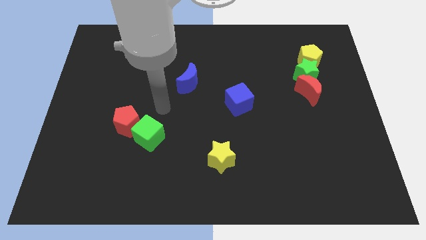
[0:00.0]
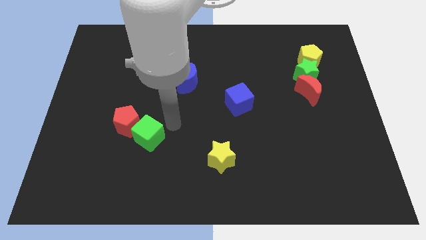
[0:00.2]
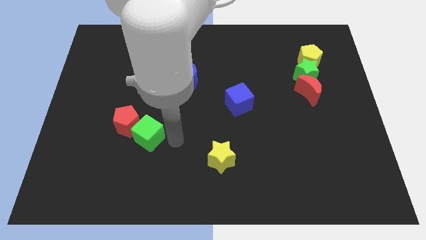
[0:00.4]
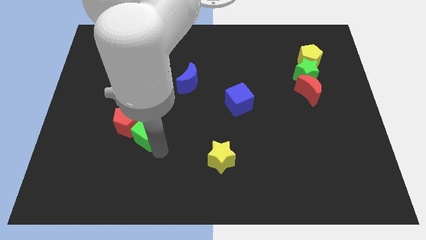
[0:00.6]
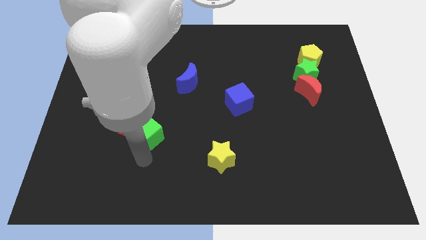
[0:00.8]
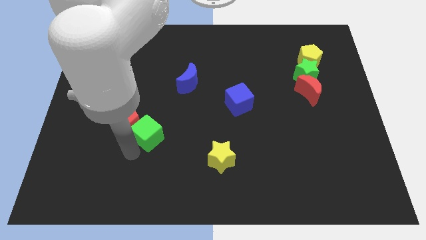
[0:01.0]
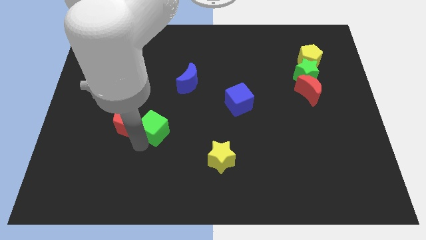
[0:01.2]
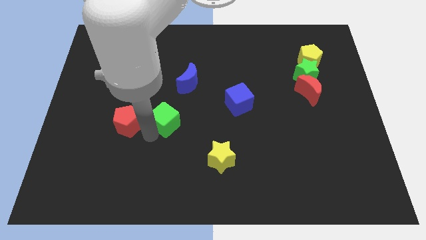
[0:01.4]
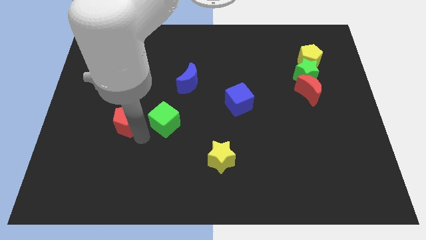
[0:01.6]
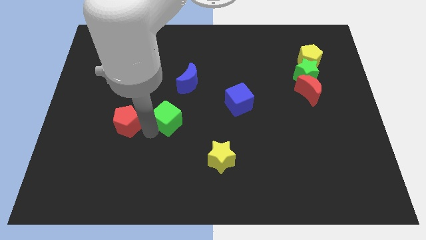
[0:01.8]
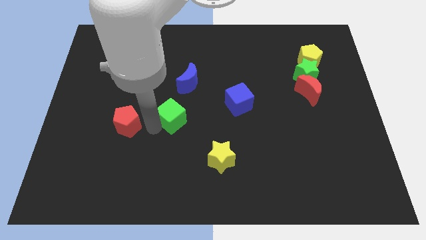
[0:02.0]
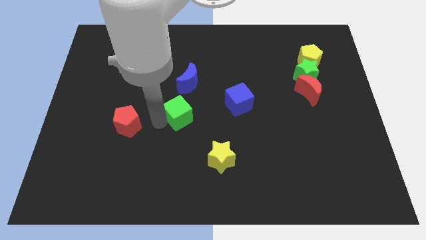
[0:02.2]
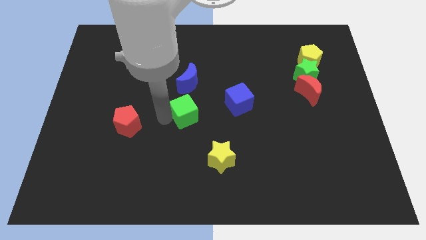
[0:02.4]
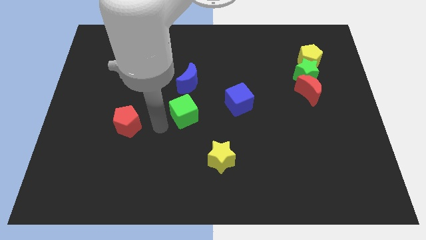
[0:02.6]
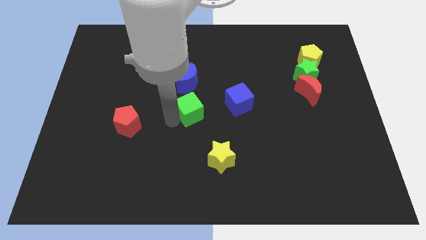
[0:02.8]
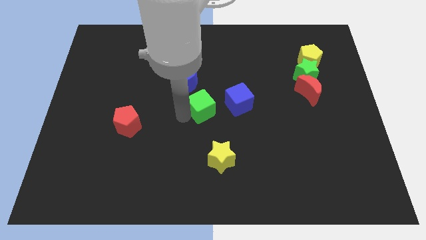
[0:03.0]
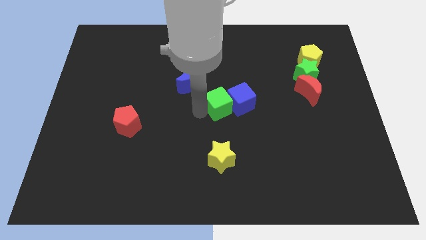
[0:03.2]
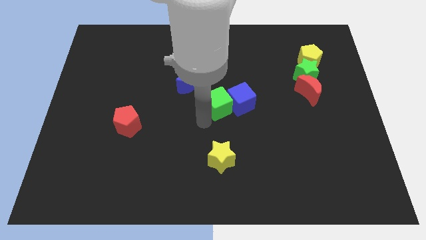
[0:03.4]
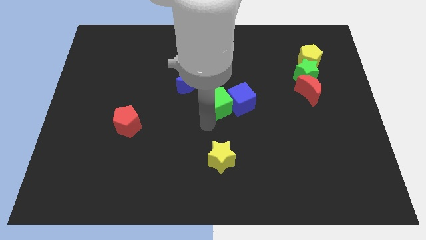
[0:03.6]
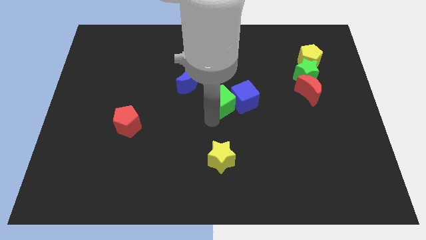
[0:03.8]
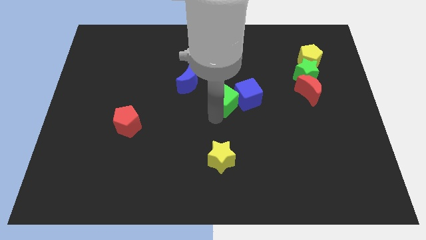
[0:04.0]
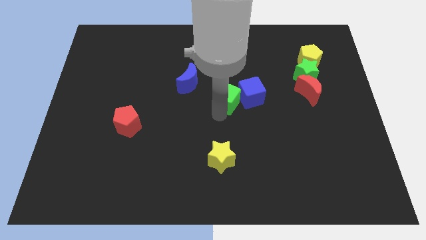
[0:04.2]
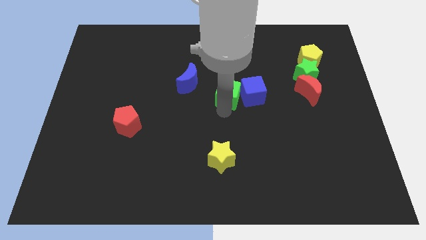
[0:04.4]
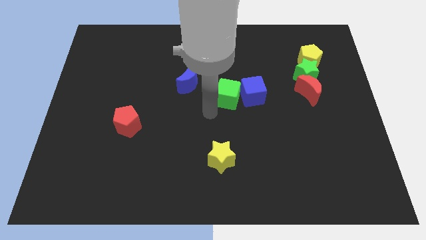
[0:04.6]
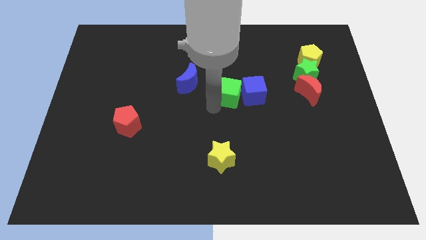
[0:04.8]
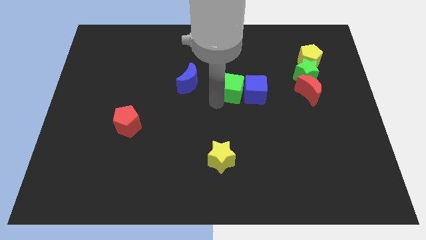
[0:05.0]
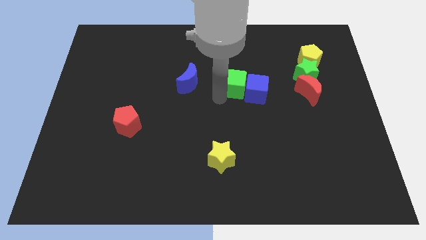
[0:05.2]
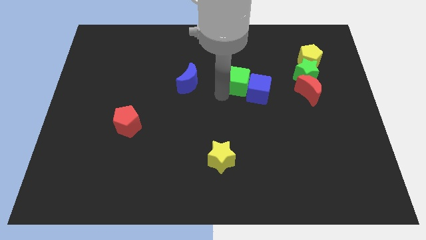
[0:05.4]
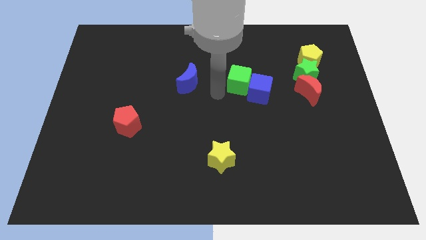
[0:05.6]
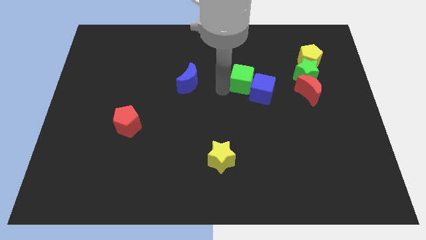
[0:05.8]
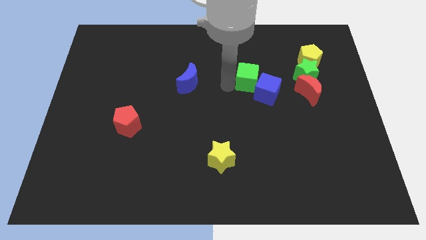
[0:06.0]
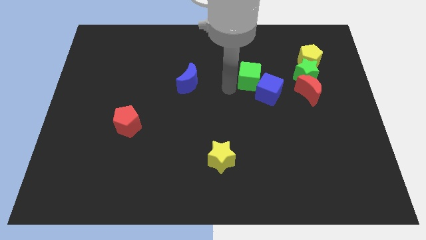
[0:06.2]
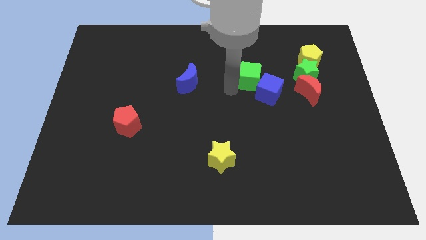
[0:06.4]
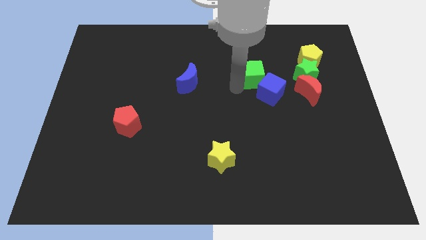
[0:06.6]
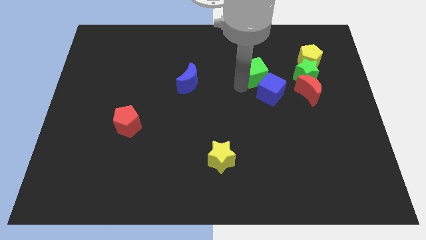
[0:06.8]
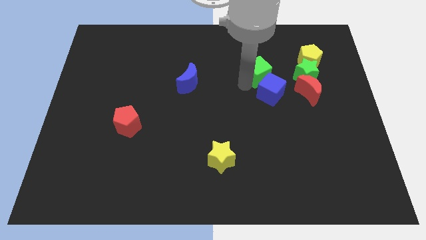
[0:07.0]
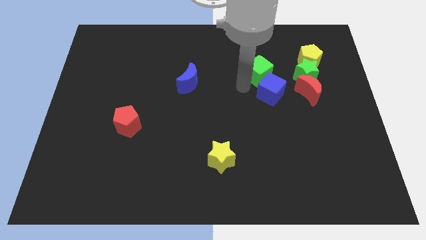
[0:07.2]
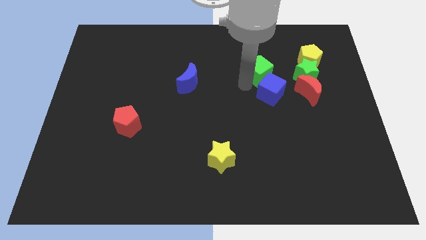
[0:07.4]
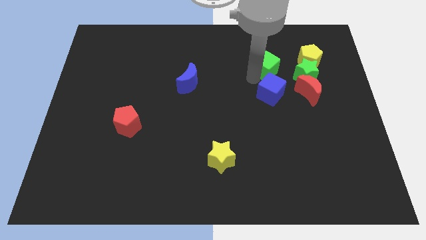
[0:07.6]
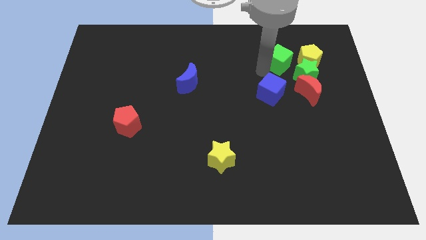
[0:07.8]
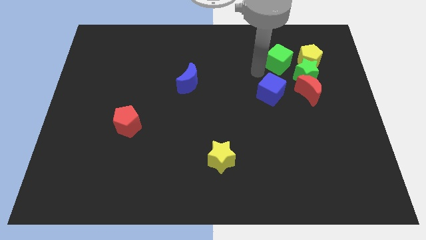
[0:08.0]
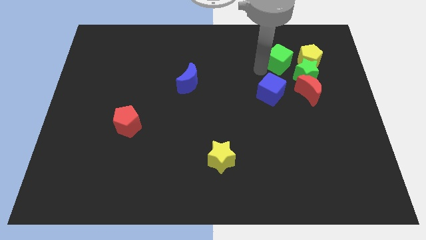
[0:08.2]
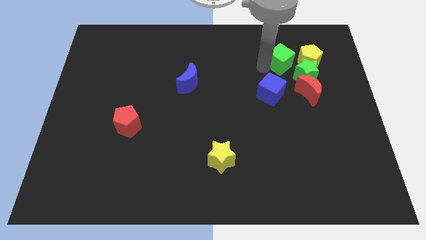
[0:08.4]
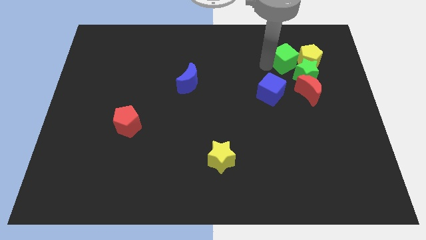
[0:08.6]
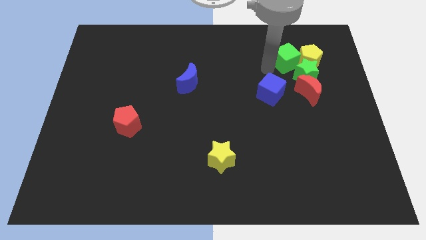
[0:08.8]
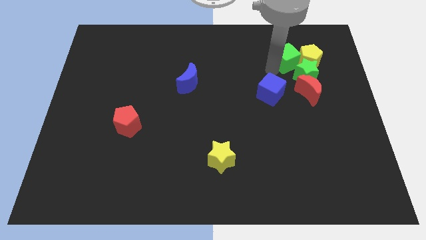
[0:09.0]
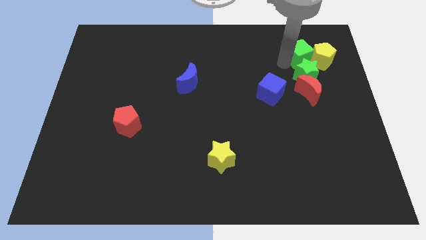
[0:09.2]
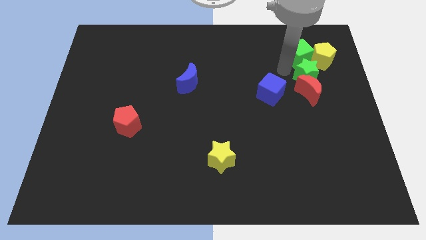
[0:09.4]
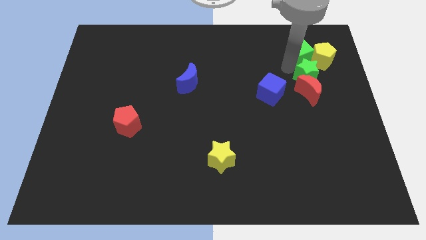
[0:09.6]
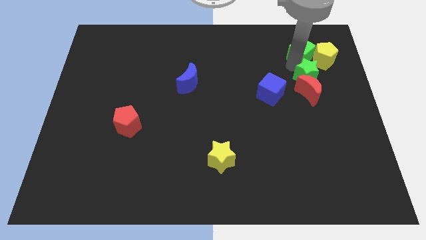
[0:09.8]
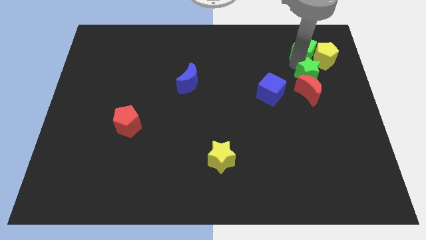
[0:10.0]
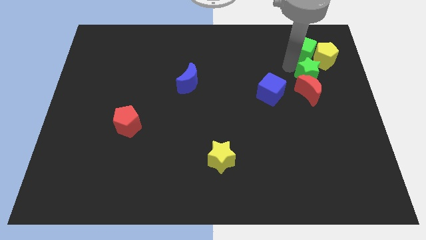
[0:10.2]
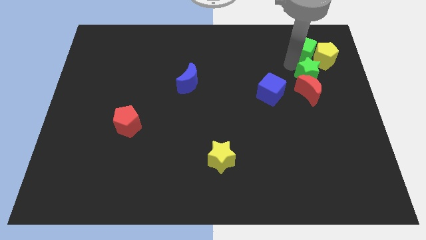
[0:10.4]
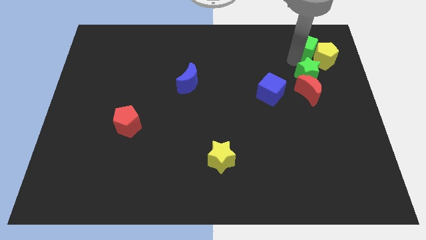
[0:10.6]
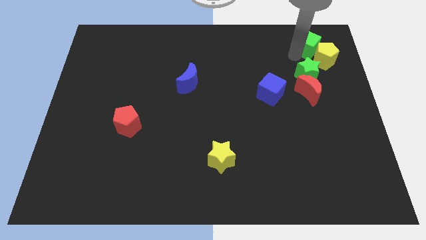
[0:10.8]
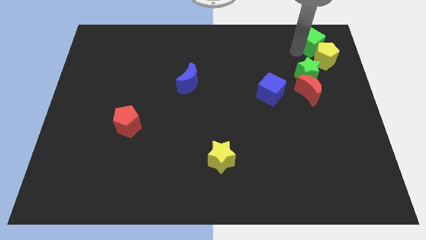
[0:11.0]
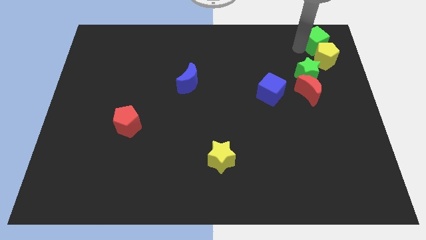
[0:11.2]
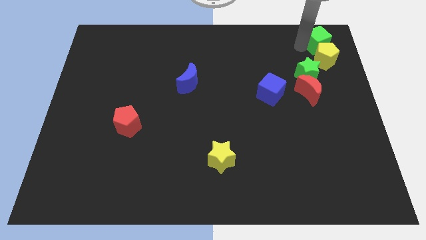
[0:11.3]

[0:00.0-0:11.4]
put the green cube to the upper right corner
